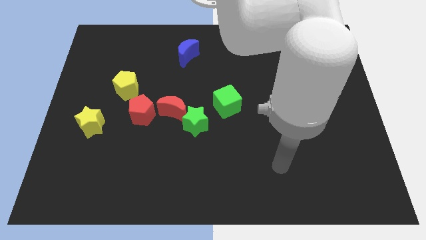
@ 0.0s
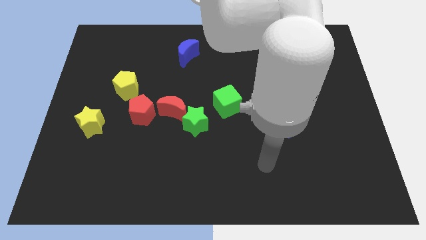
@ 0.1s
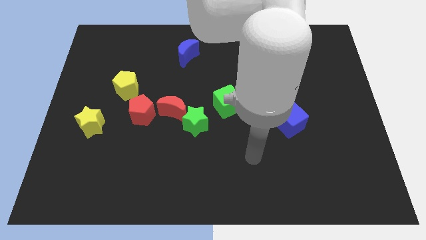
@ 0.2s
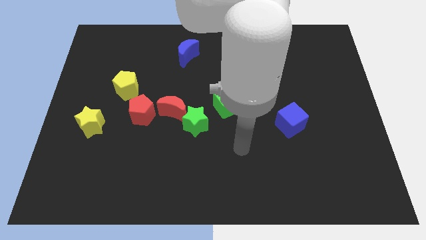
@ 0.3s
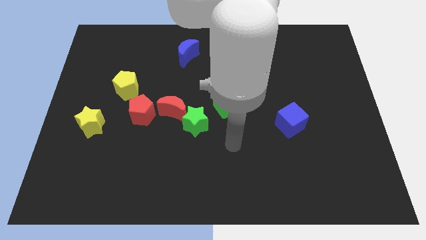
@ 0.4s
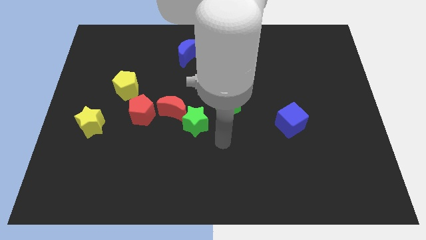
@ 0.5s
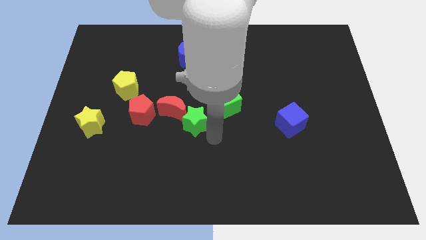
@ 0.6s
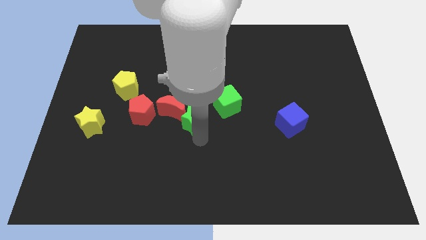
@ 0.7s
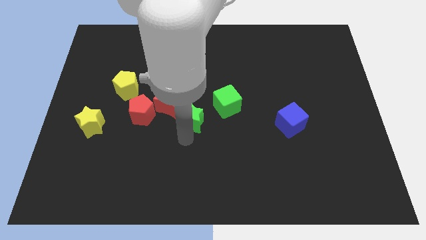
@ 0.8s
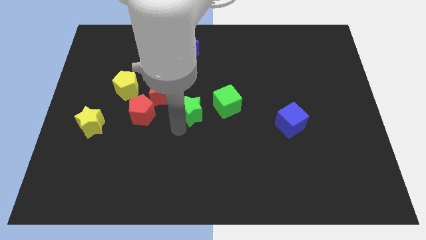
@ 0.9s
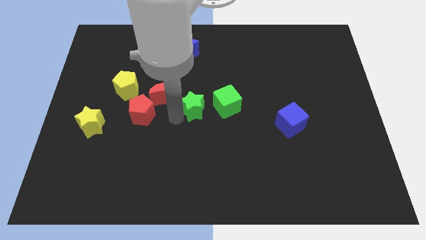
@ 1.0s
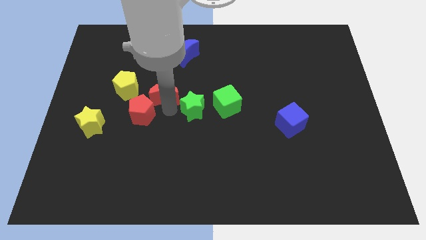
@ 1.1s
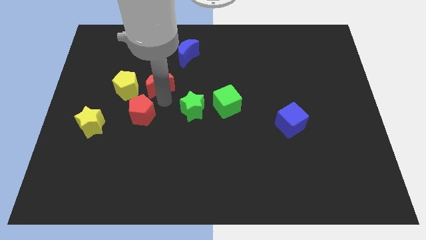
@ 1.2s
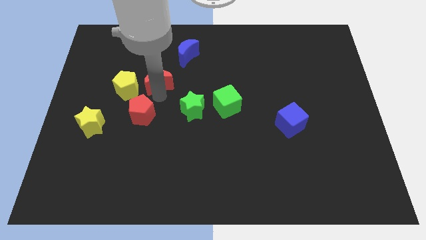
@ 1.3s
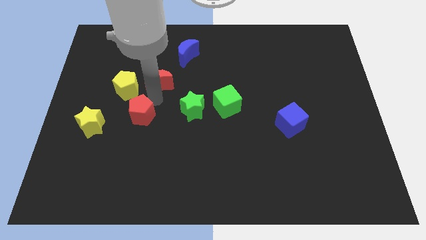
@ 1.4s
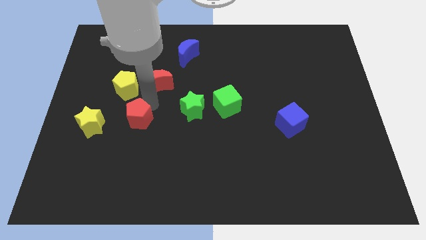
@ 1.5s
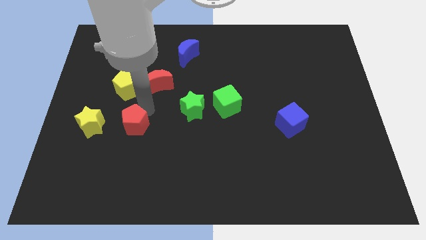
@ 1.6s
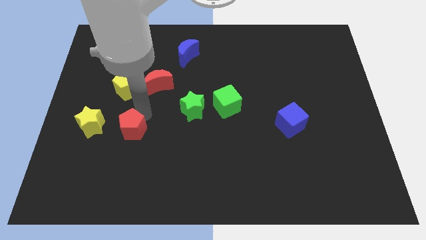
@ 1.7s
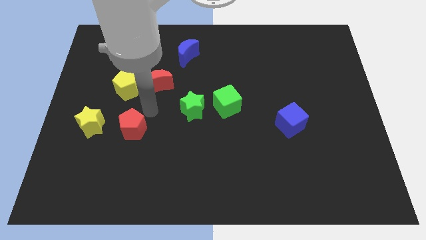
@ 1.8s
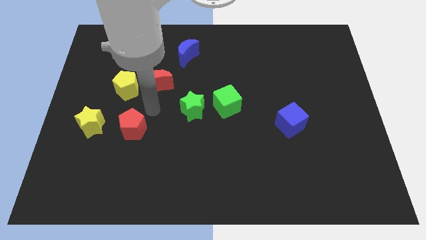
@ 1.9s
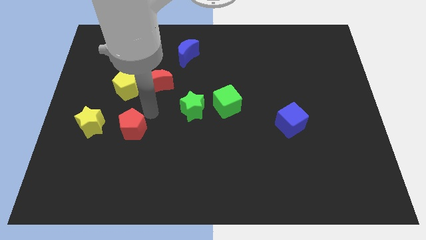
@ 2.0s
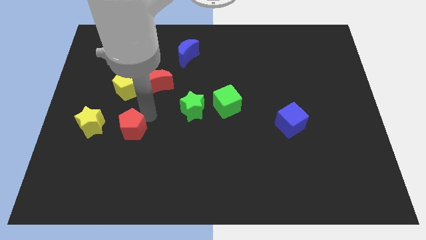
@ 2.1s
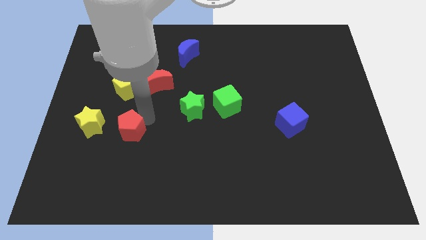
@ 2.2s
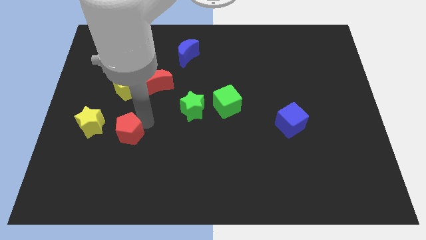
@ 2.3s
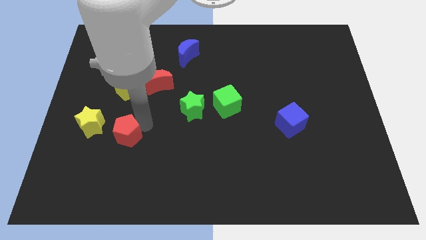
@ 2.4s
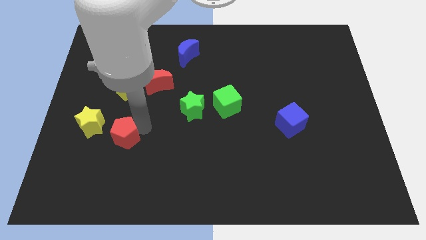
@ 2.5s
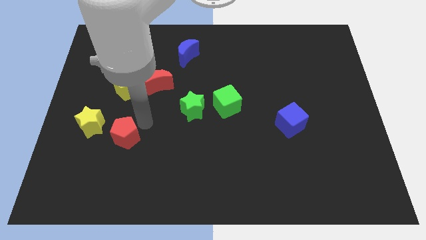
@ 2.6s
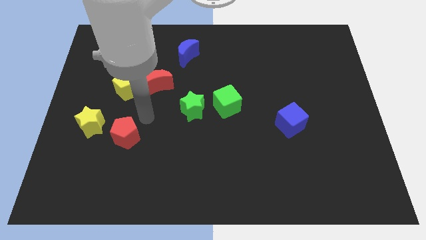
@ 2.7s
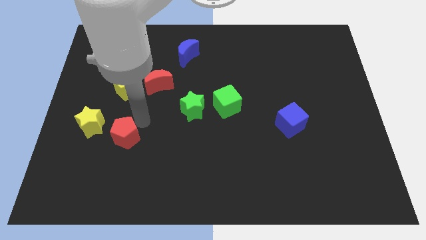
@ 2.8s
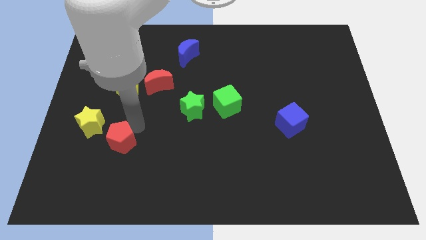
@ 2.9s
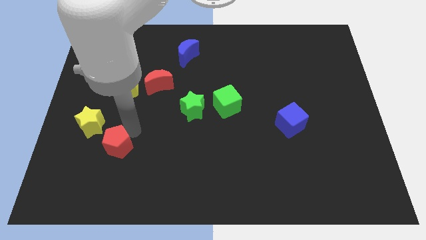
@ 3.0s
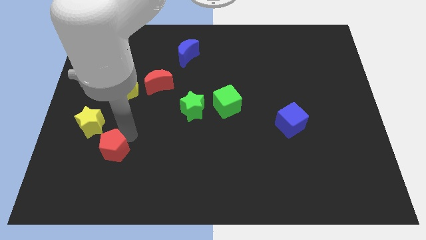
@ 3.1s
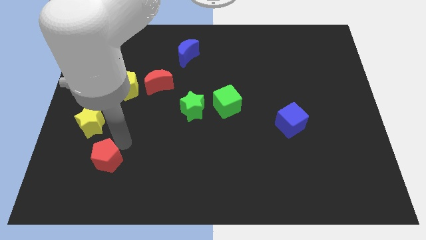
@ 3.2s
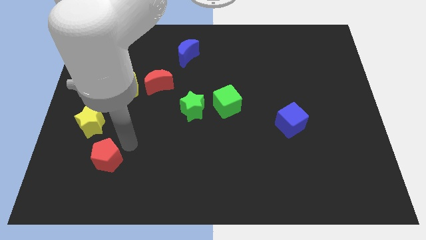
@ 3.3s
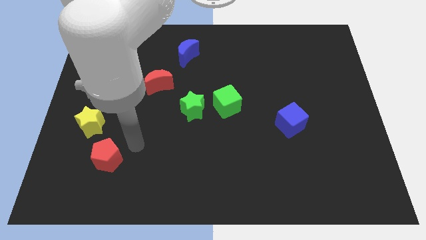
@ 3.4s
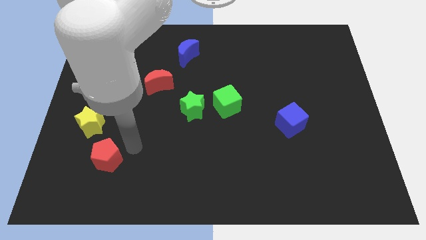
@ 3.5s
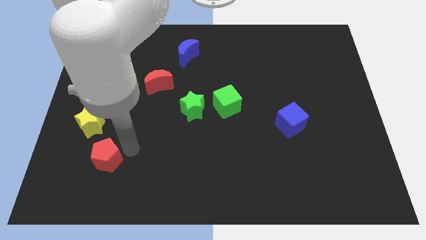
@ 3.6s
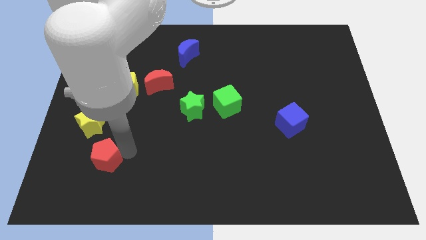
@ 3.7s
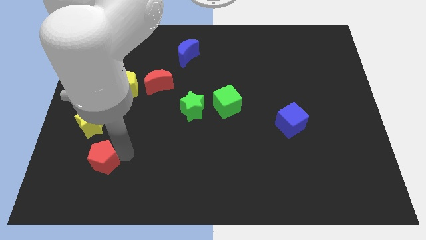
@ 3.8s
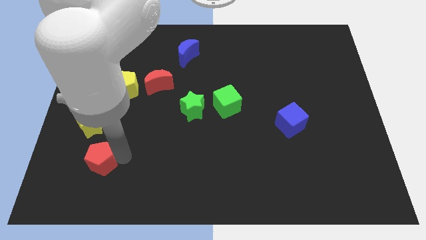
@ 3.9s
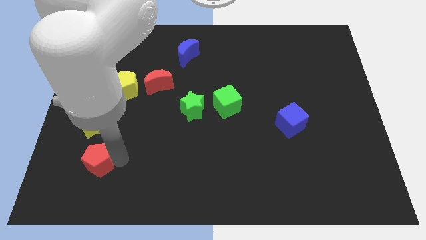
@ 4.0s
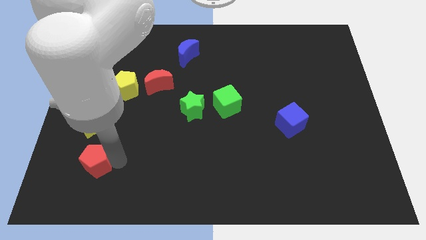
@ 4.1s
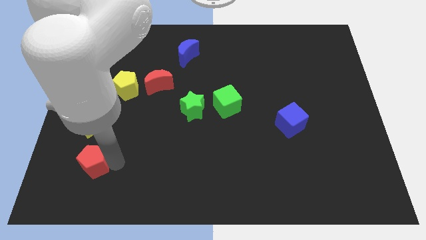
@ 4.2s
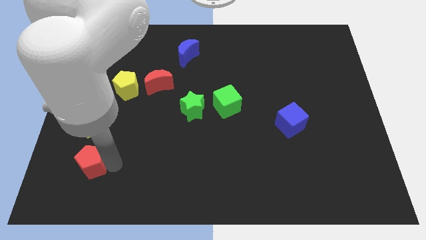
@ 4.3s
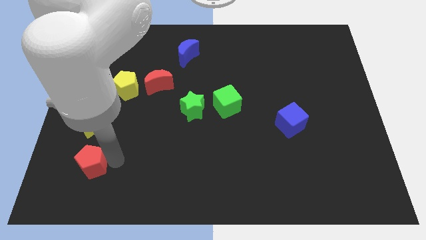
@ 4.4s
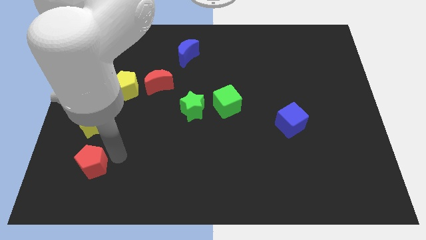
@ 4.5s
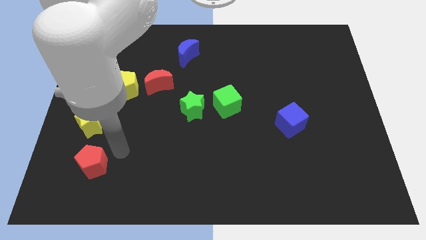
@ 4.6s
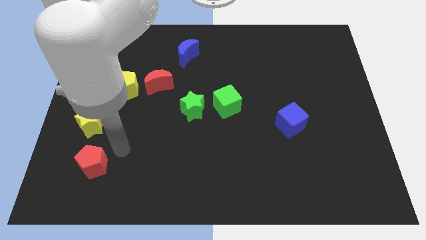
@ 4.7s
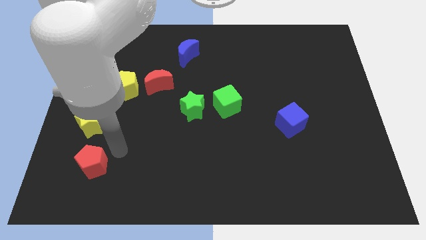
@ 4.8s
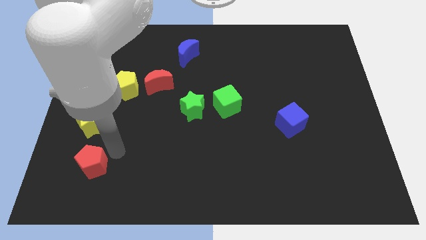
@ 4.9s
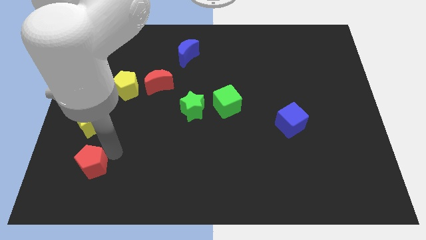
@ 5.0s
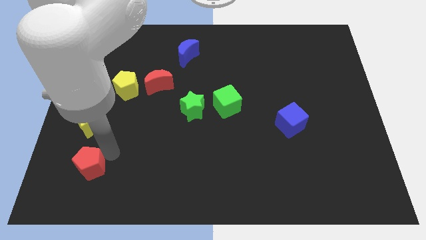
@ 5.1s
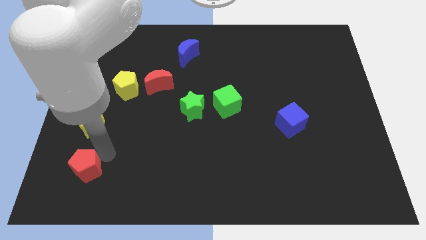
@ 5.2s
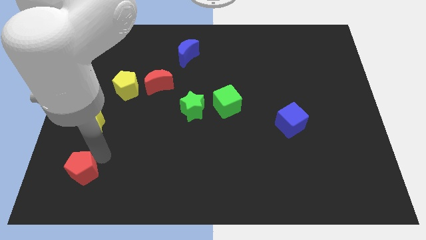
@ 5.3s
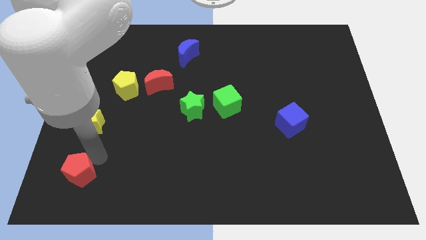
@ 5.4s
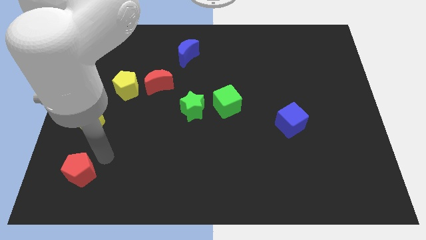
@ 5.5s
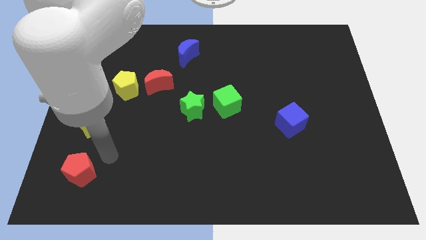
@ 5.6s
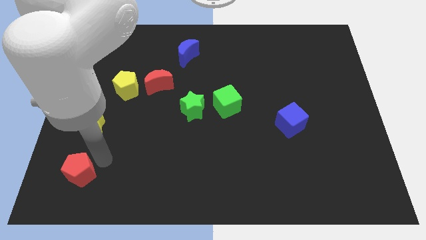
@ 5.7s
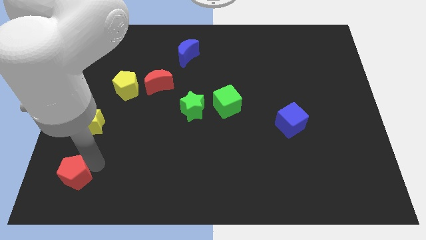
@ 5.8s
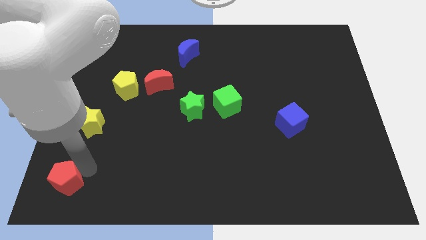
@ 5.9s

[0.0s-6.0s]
put the red pentagon to the bottom left of the board

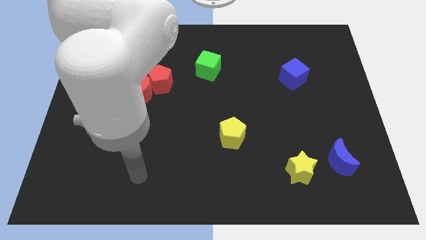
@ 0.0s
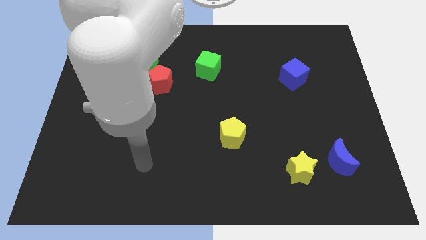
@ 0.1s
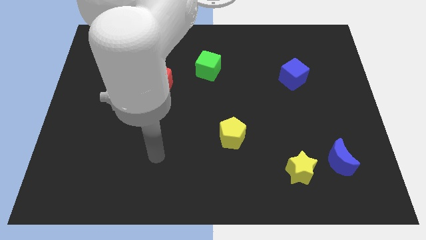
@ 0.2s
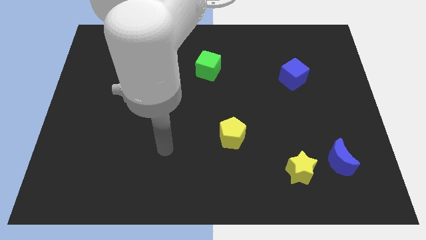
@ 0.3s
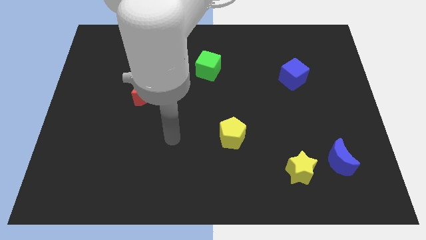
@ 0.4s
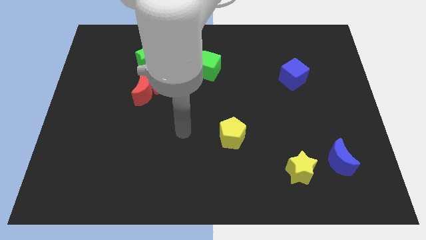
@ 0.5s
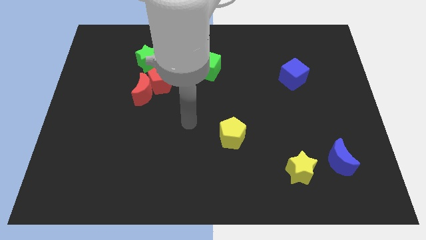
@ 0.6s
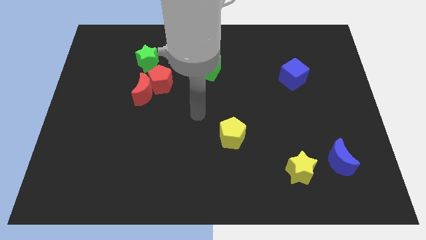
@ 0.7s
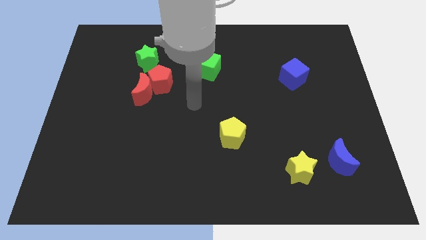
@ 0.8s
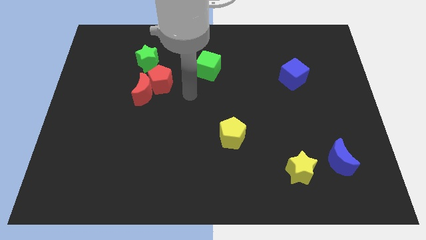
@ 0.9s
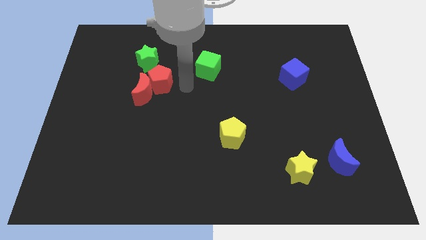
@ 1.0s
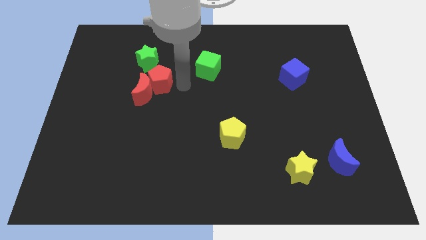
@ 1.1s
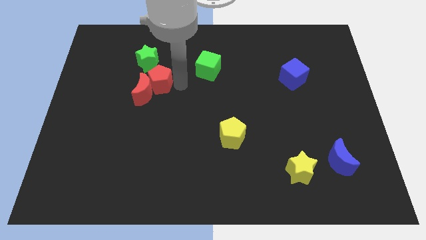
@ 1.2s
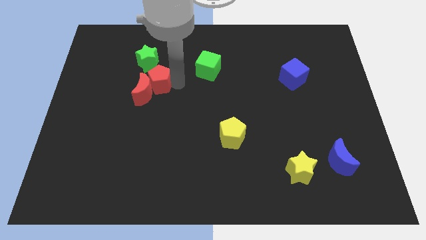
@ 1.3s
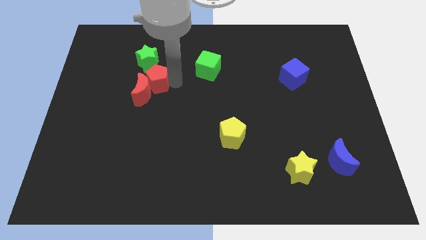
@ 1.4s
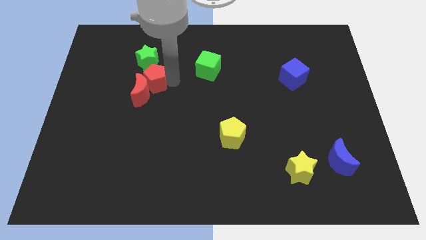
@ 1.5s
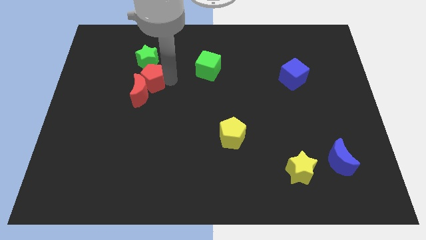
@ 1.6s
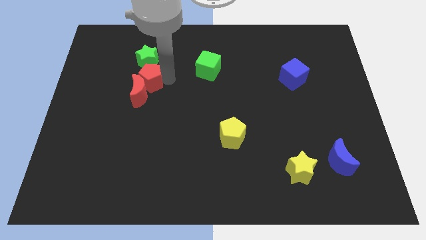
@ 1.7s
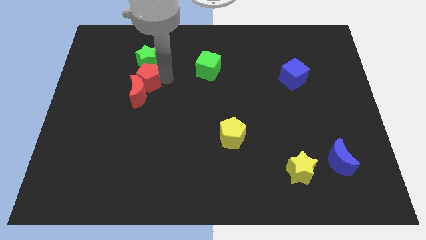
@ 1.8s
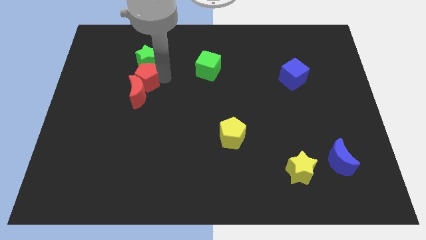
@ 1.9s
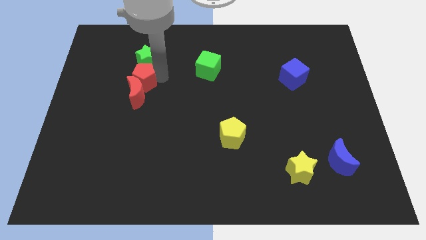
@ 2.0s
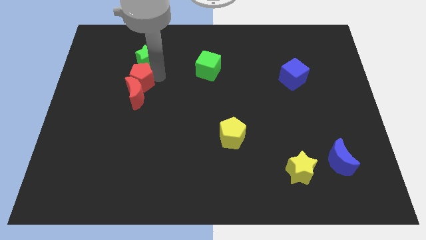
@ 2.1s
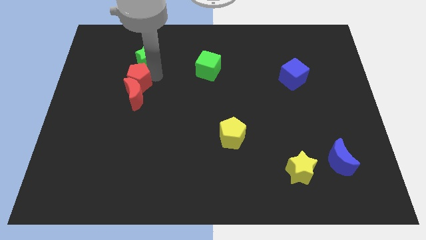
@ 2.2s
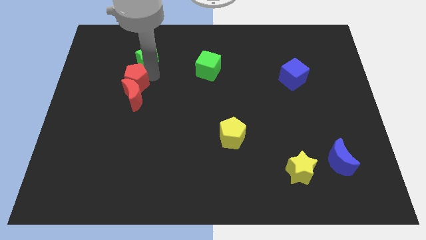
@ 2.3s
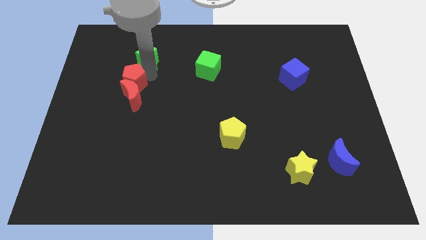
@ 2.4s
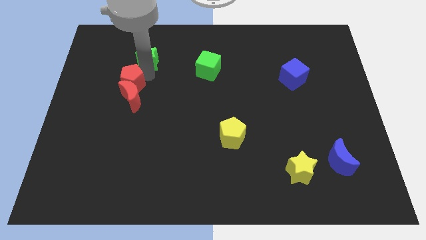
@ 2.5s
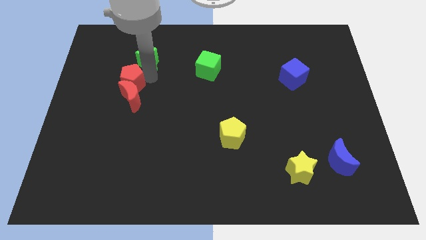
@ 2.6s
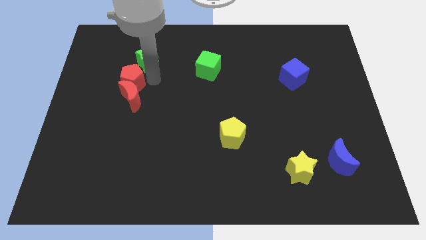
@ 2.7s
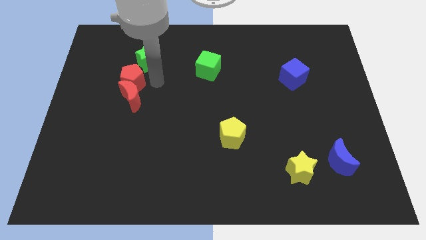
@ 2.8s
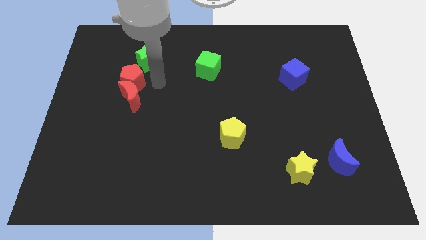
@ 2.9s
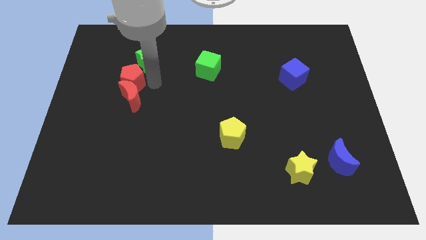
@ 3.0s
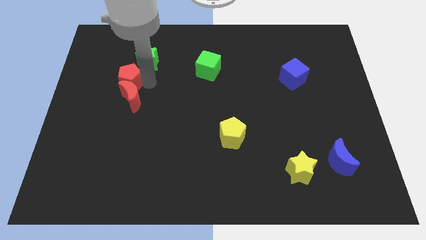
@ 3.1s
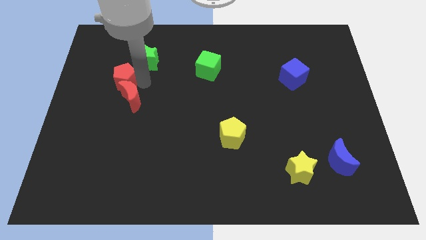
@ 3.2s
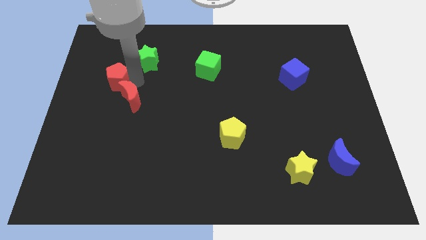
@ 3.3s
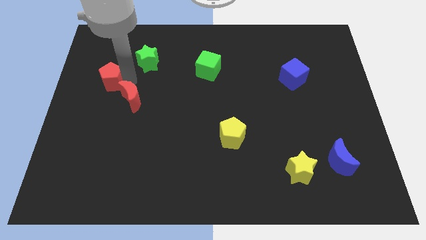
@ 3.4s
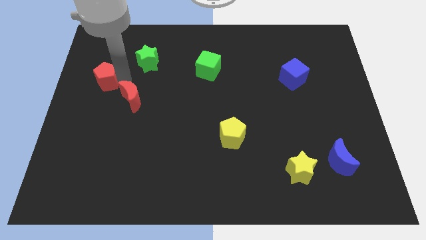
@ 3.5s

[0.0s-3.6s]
put the red pentagon to the left side
